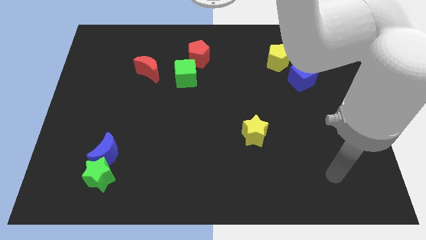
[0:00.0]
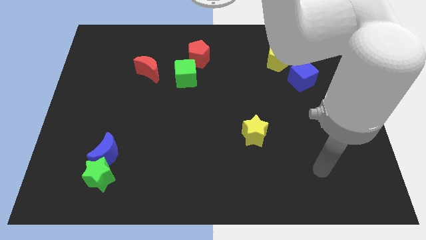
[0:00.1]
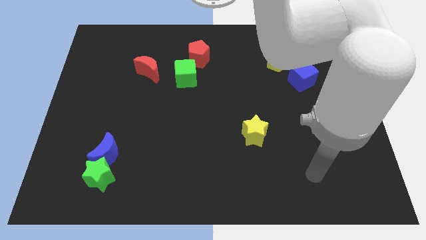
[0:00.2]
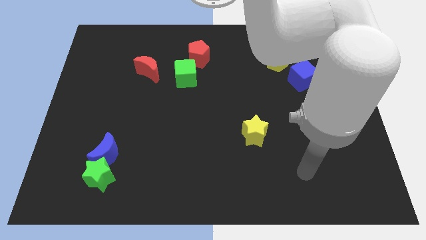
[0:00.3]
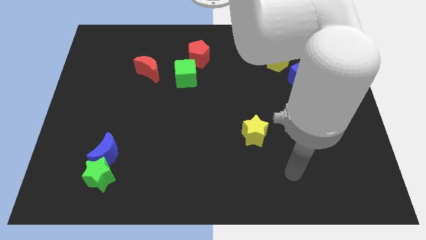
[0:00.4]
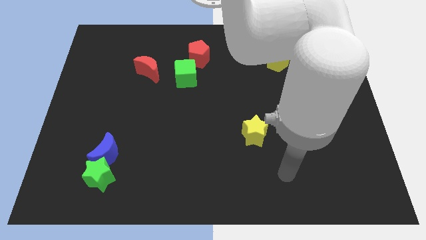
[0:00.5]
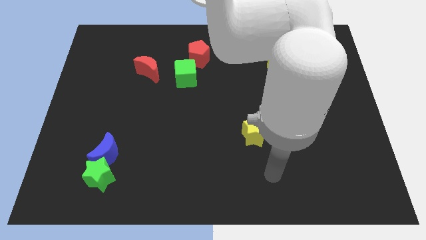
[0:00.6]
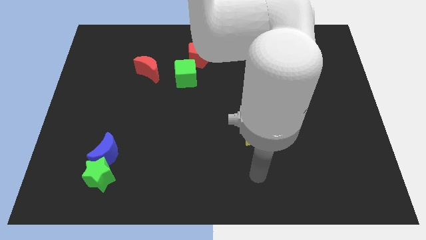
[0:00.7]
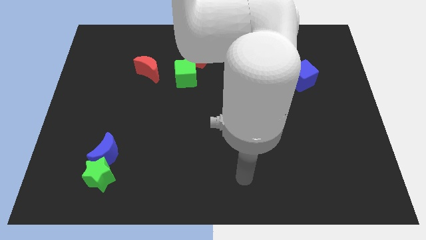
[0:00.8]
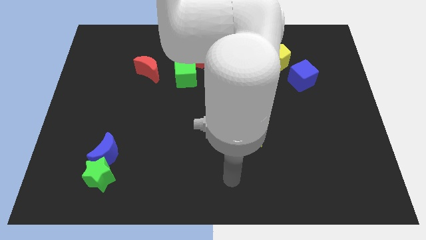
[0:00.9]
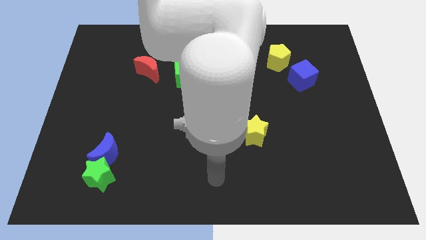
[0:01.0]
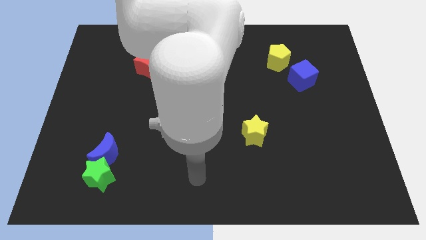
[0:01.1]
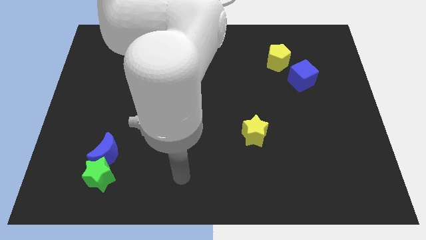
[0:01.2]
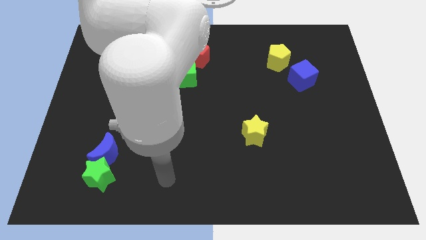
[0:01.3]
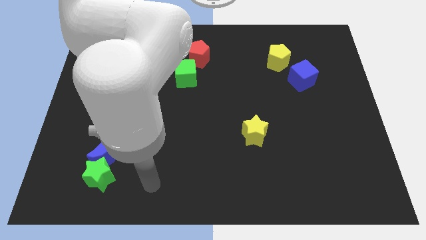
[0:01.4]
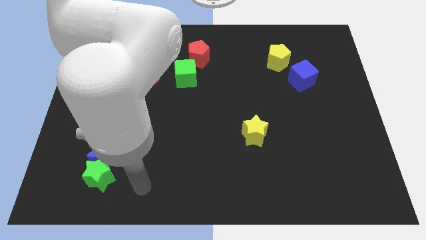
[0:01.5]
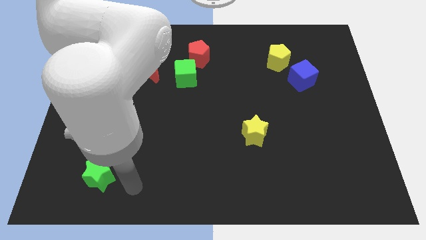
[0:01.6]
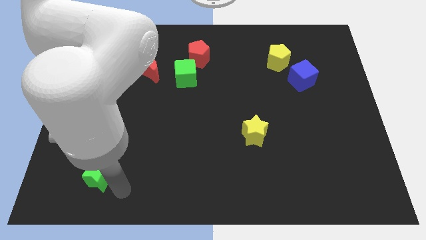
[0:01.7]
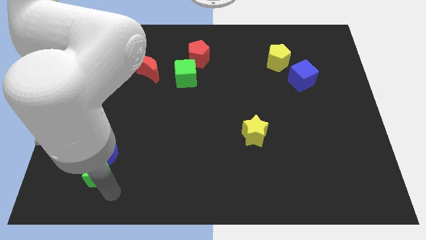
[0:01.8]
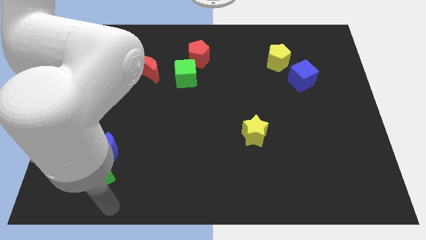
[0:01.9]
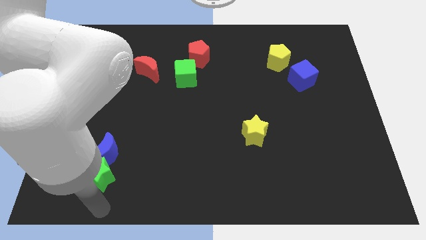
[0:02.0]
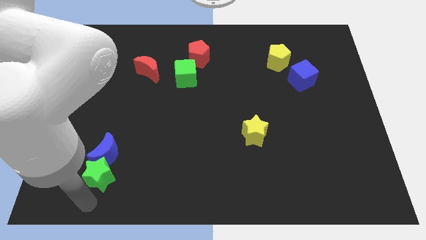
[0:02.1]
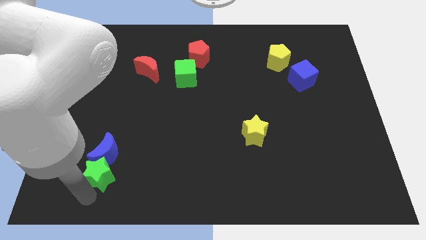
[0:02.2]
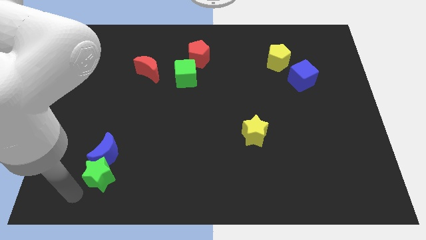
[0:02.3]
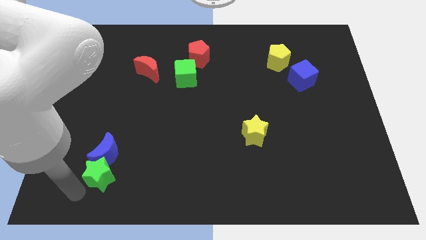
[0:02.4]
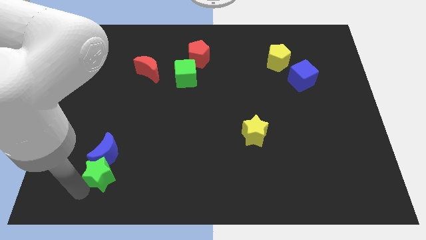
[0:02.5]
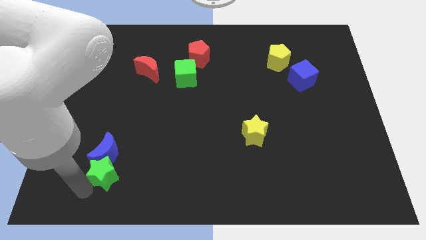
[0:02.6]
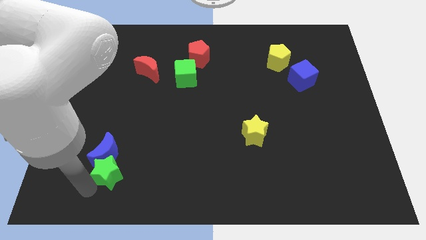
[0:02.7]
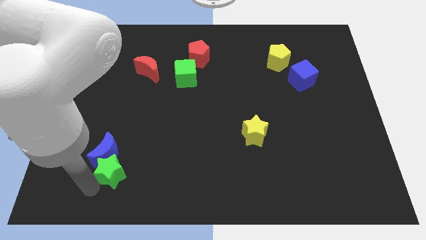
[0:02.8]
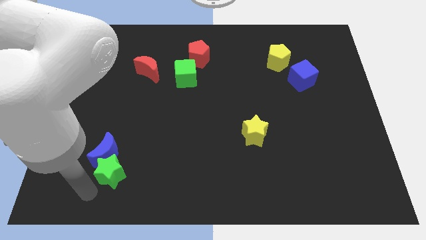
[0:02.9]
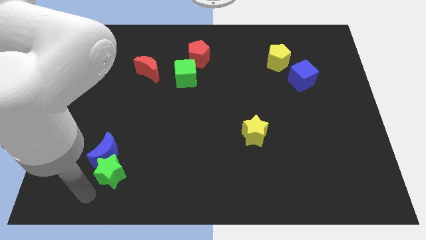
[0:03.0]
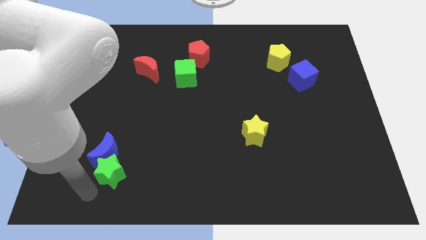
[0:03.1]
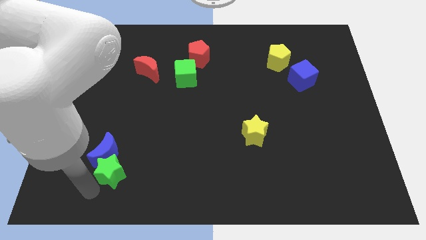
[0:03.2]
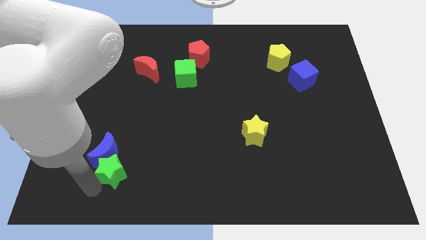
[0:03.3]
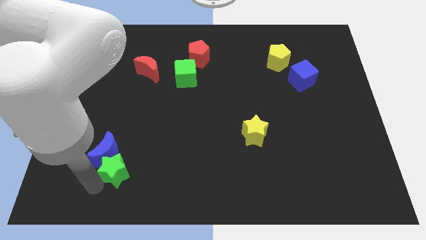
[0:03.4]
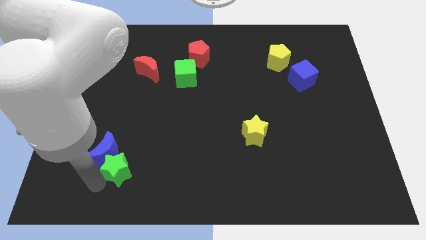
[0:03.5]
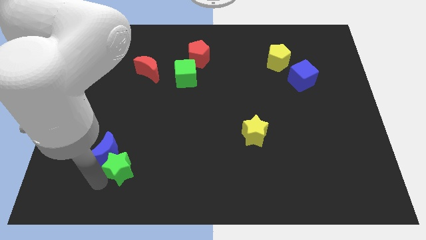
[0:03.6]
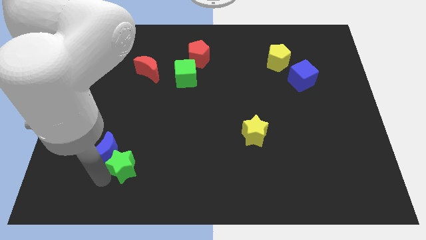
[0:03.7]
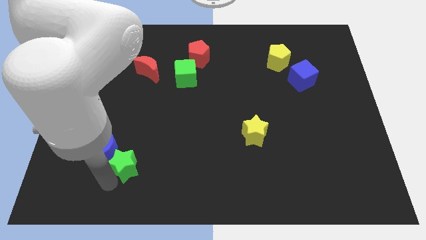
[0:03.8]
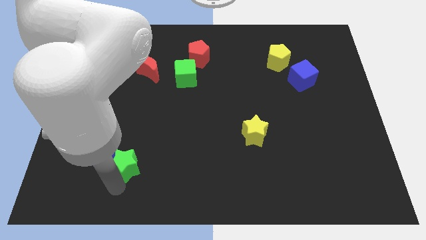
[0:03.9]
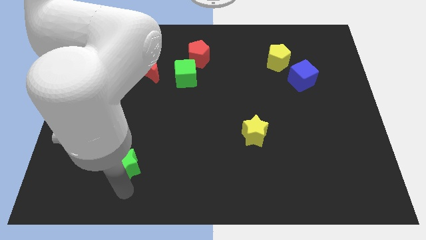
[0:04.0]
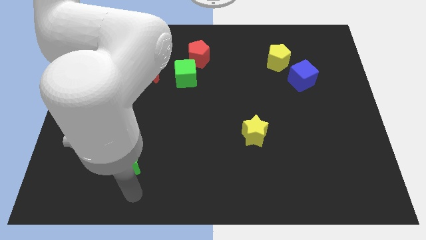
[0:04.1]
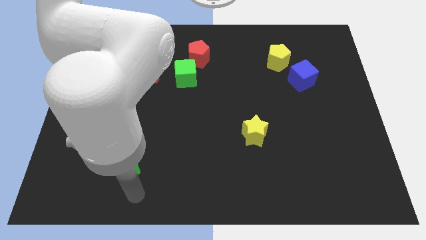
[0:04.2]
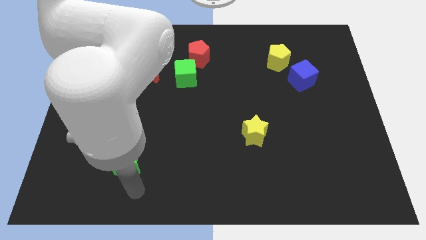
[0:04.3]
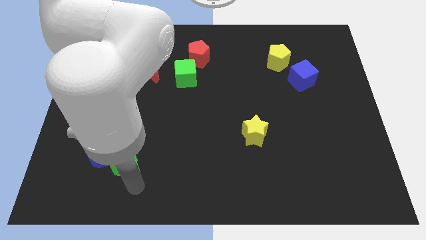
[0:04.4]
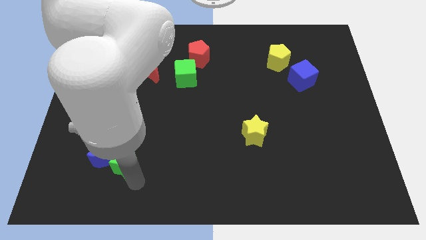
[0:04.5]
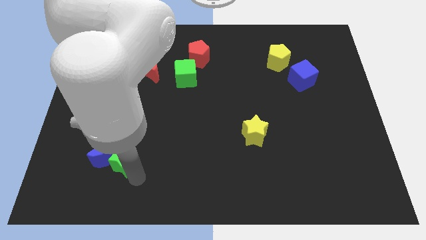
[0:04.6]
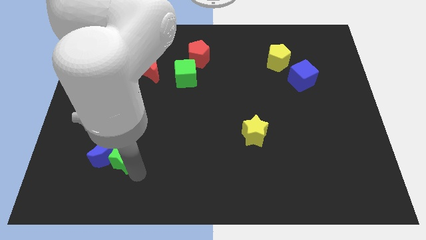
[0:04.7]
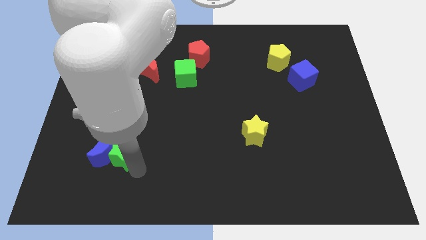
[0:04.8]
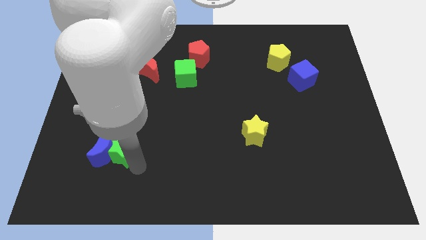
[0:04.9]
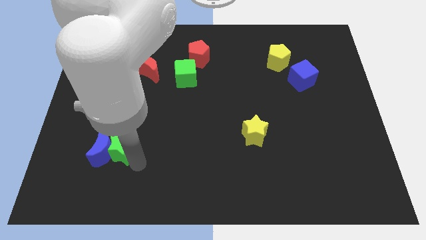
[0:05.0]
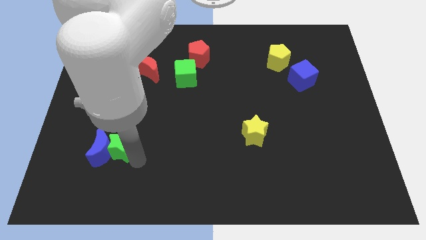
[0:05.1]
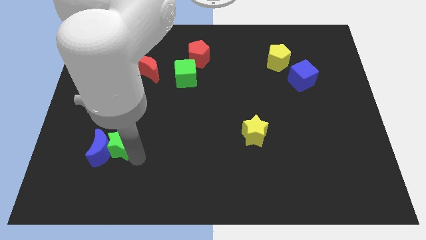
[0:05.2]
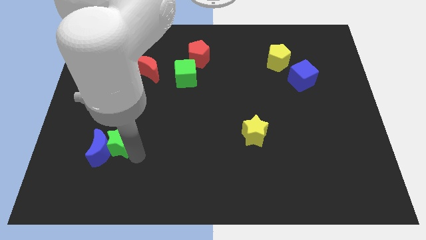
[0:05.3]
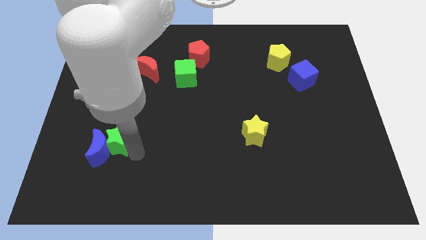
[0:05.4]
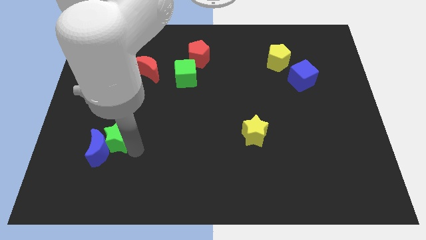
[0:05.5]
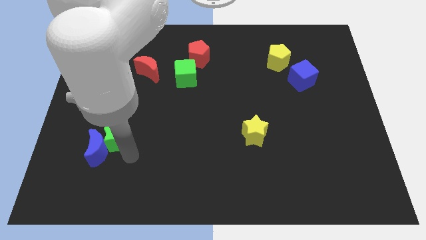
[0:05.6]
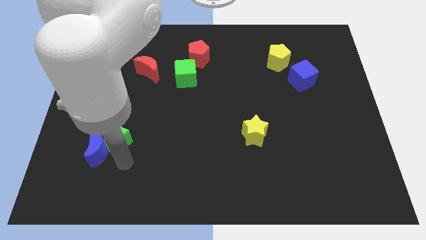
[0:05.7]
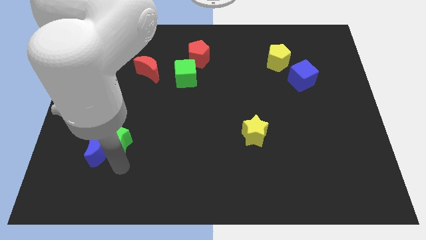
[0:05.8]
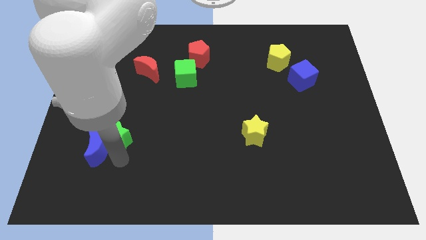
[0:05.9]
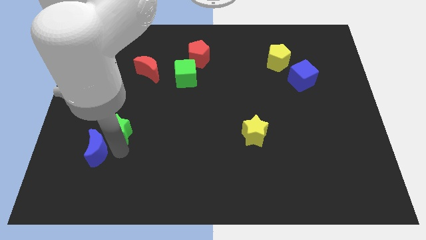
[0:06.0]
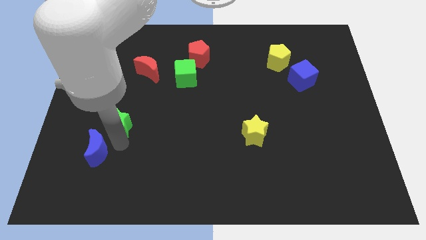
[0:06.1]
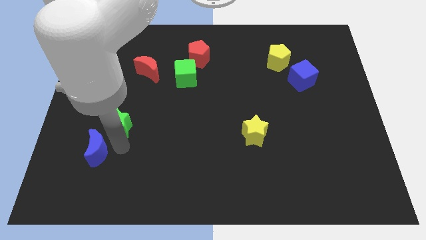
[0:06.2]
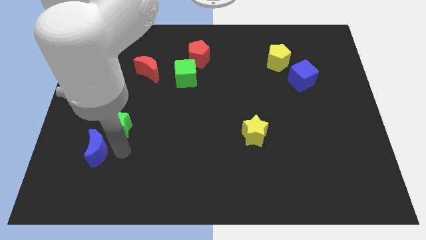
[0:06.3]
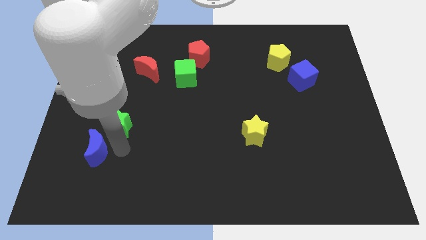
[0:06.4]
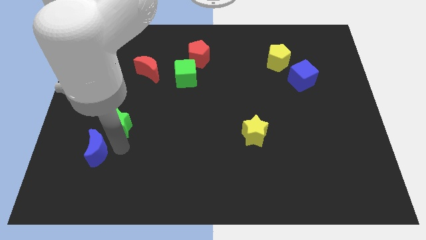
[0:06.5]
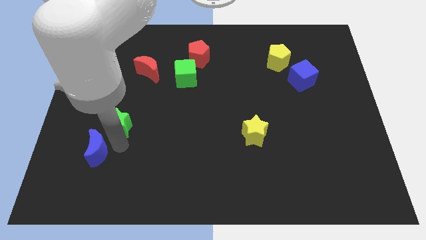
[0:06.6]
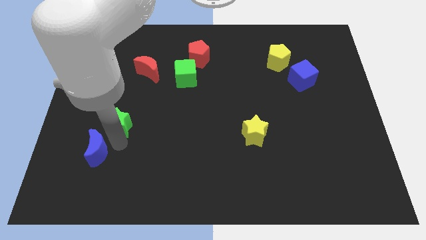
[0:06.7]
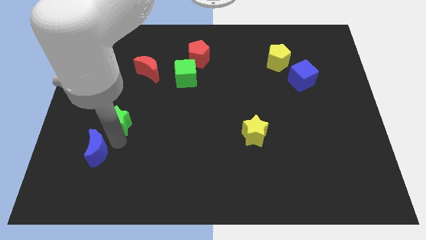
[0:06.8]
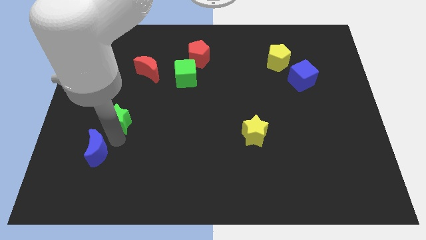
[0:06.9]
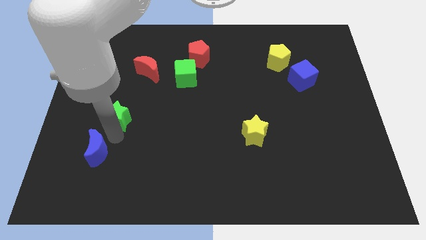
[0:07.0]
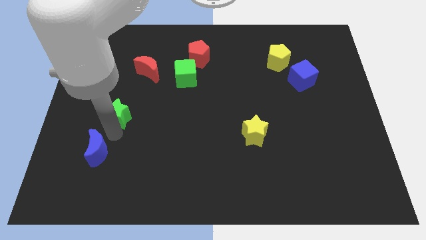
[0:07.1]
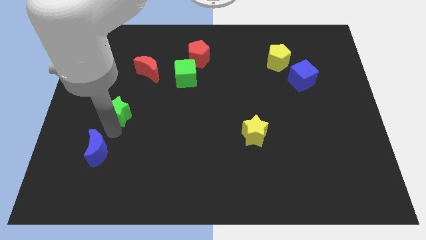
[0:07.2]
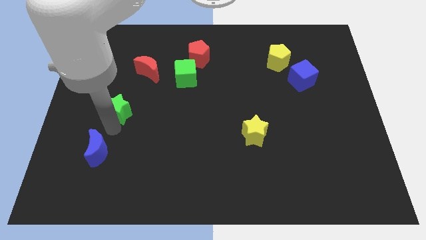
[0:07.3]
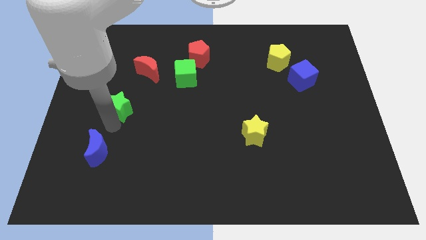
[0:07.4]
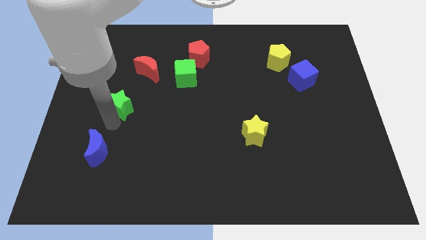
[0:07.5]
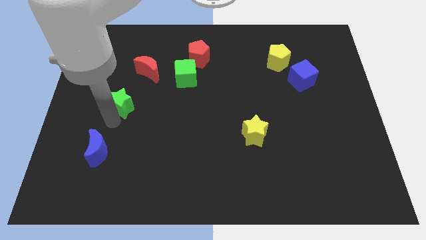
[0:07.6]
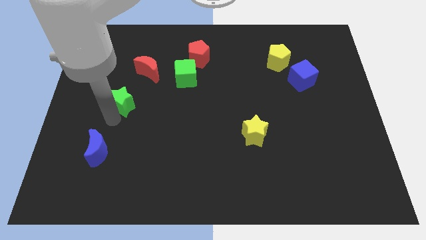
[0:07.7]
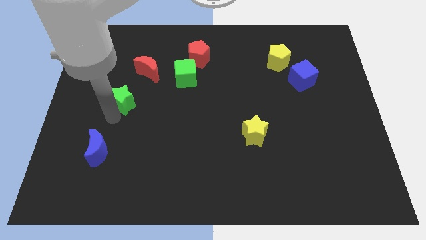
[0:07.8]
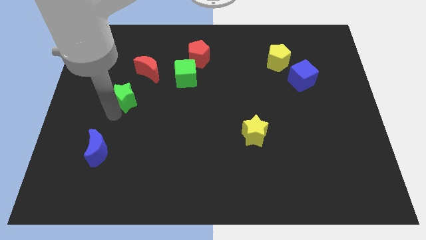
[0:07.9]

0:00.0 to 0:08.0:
push the green star up

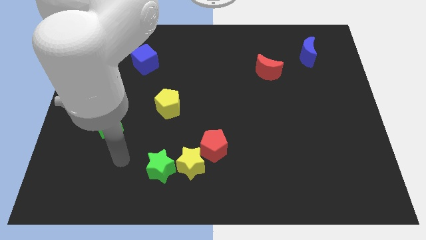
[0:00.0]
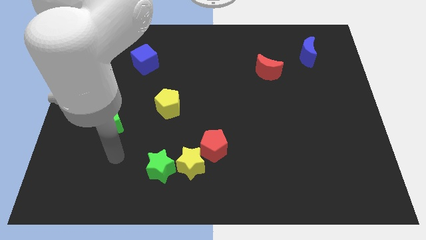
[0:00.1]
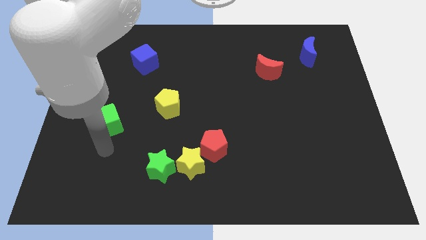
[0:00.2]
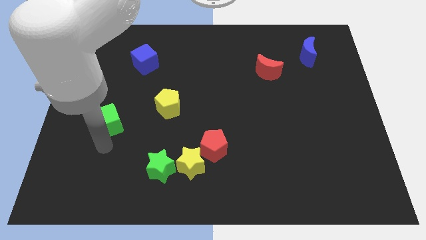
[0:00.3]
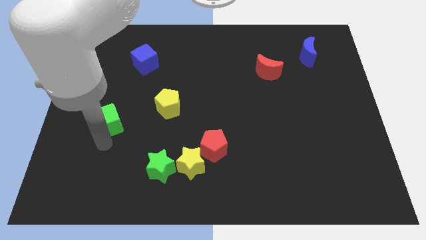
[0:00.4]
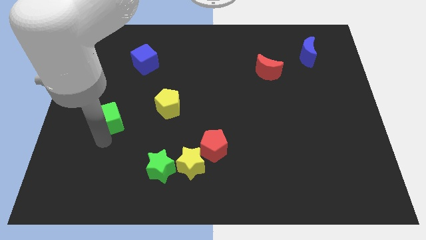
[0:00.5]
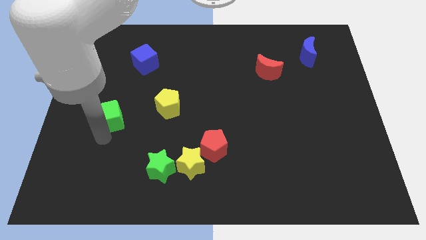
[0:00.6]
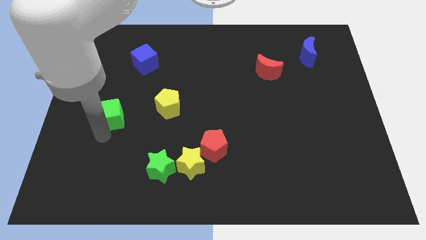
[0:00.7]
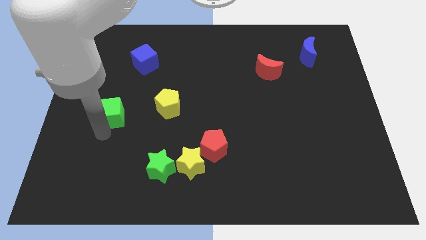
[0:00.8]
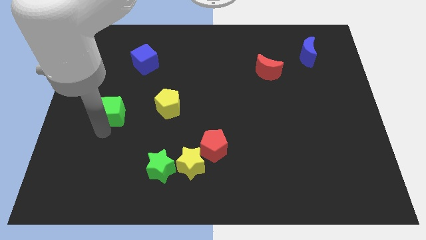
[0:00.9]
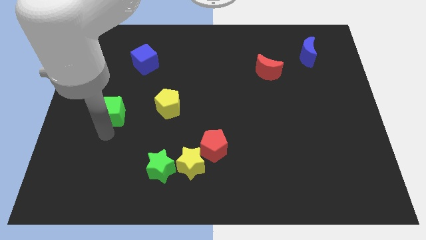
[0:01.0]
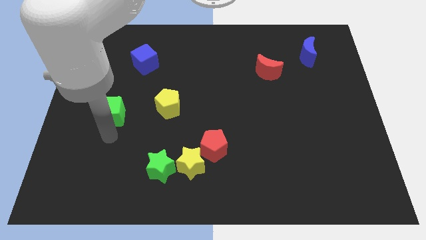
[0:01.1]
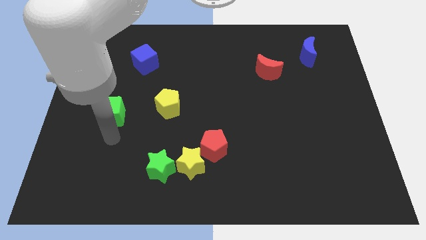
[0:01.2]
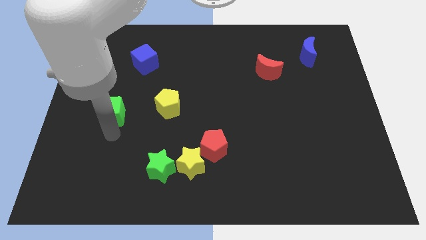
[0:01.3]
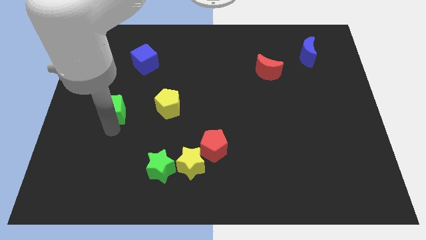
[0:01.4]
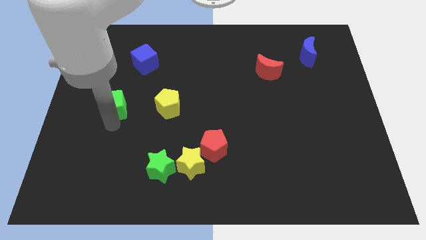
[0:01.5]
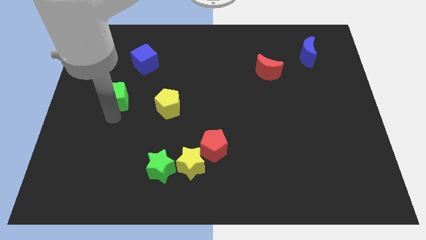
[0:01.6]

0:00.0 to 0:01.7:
push the green cube up somewhat
